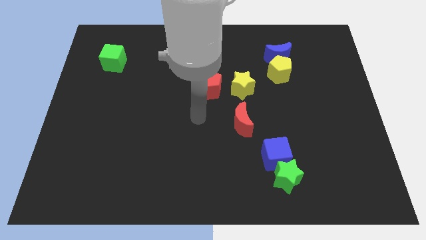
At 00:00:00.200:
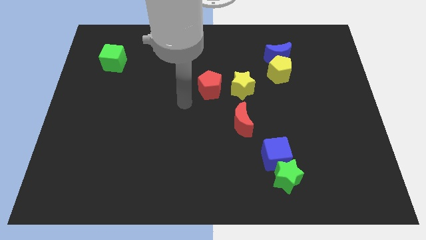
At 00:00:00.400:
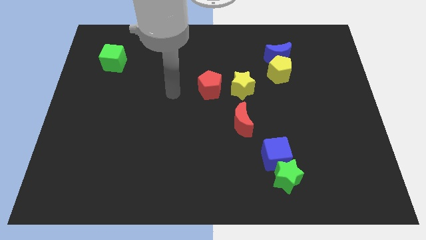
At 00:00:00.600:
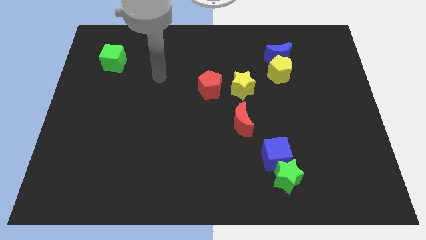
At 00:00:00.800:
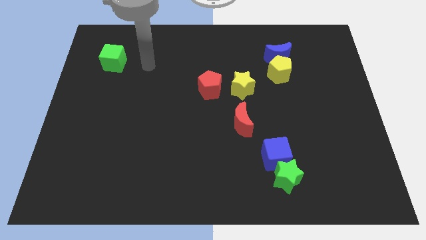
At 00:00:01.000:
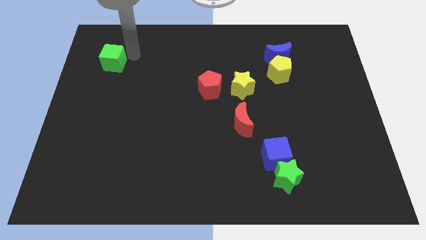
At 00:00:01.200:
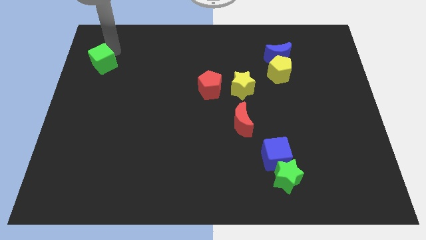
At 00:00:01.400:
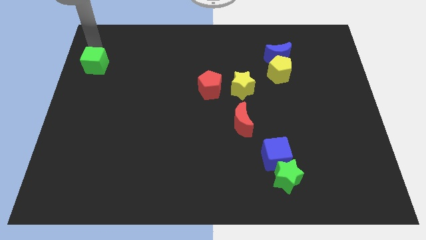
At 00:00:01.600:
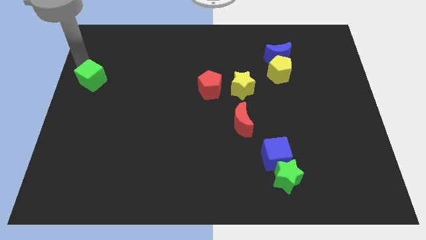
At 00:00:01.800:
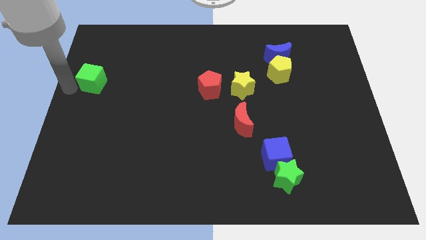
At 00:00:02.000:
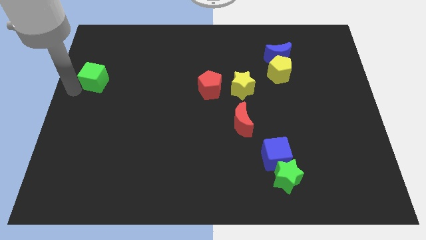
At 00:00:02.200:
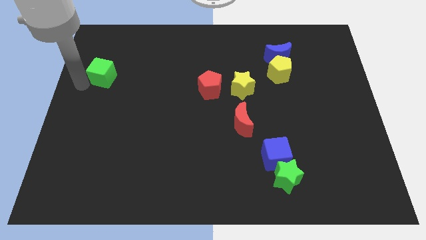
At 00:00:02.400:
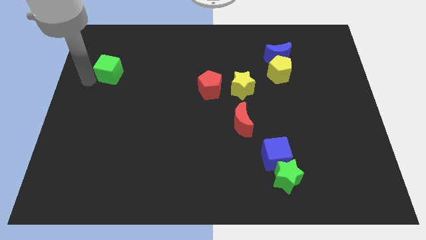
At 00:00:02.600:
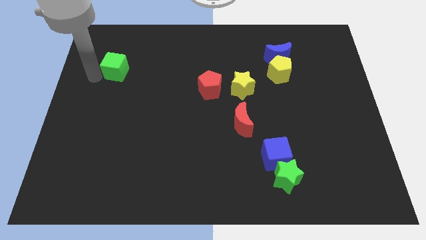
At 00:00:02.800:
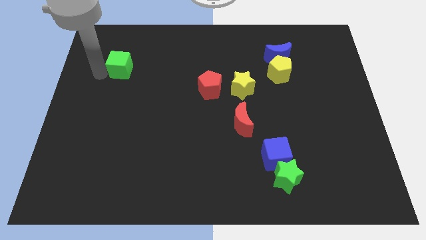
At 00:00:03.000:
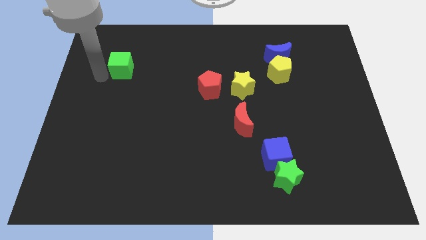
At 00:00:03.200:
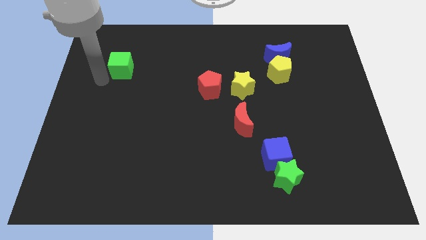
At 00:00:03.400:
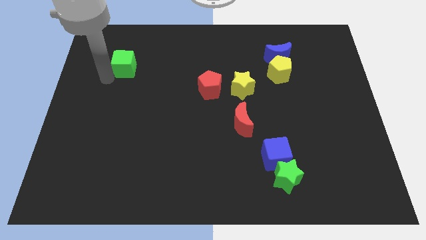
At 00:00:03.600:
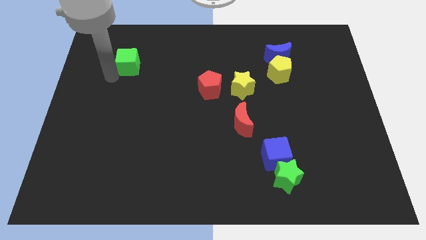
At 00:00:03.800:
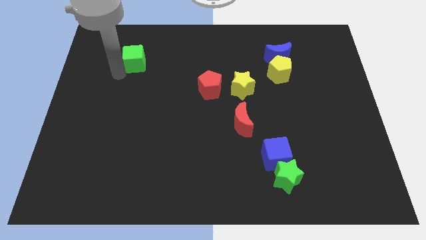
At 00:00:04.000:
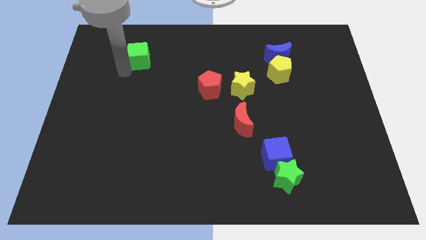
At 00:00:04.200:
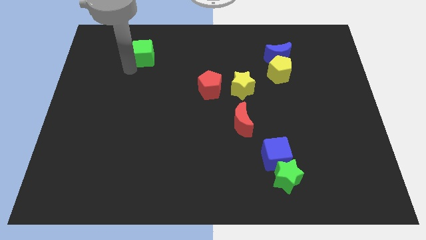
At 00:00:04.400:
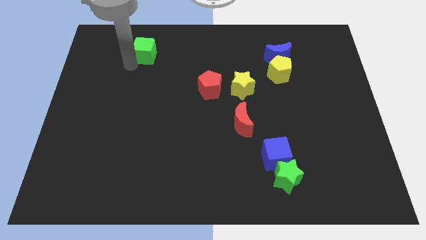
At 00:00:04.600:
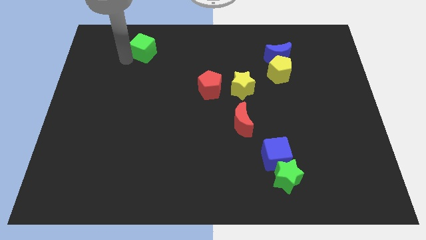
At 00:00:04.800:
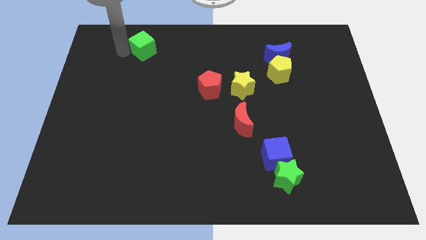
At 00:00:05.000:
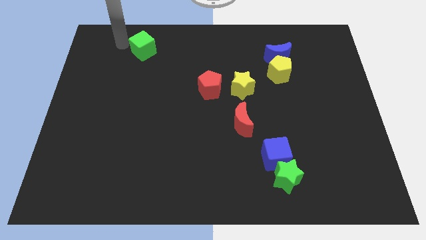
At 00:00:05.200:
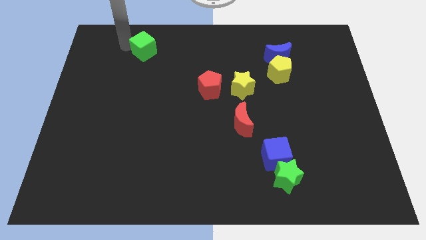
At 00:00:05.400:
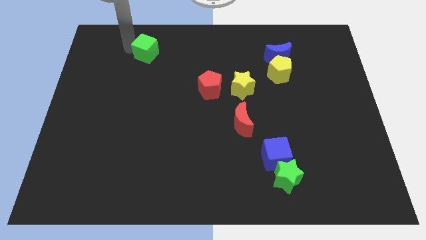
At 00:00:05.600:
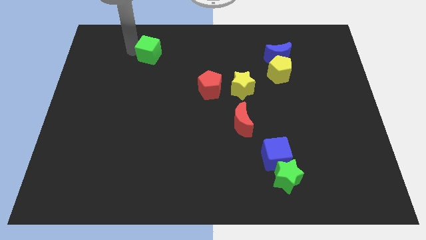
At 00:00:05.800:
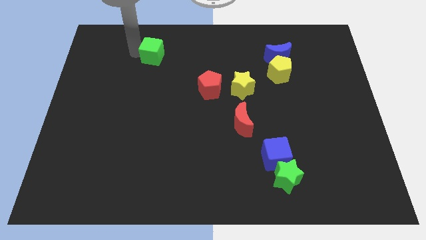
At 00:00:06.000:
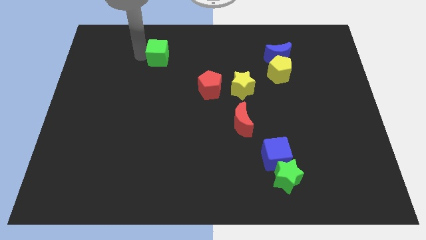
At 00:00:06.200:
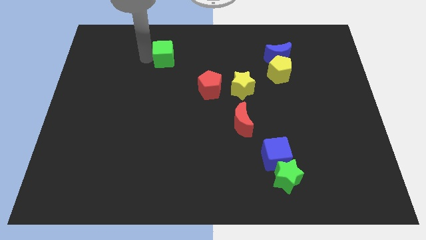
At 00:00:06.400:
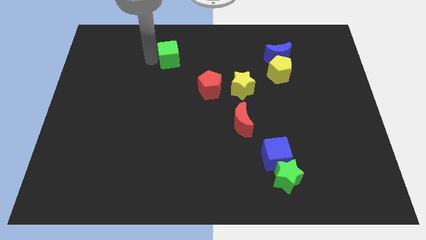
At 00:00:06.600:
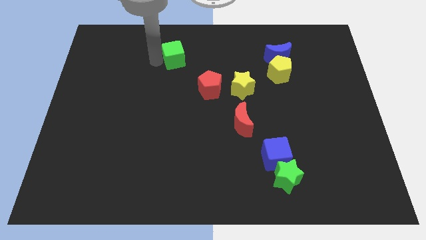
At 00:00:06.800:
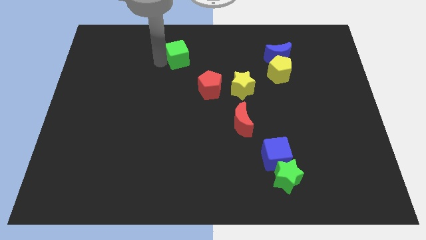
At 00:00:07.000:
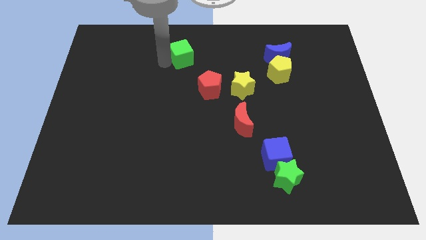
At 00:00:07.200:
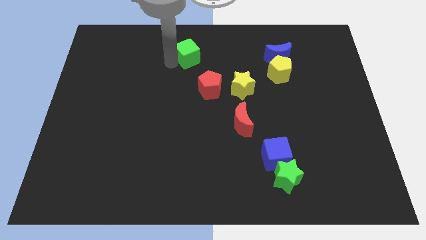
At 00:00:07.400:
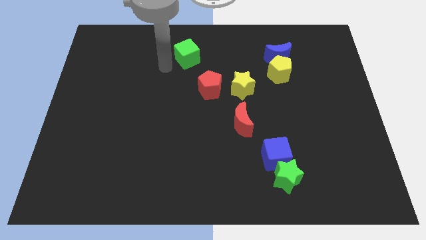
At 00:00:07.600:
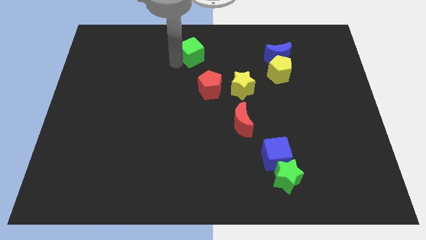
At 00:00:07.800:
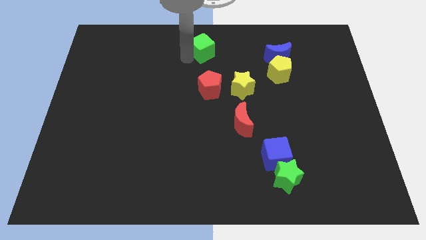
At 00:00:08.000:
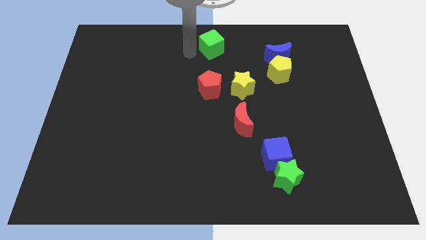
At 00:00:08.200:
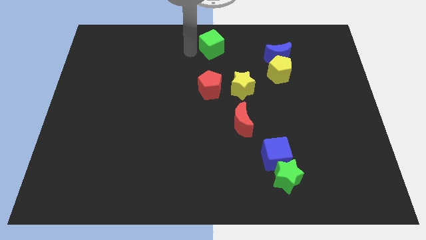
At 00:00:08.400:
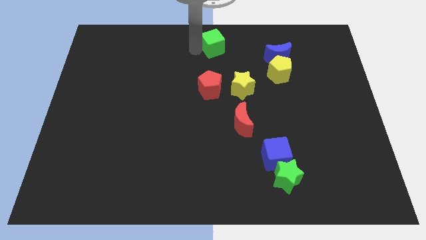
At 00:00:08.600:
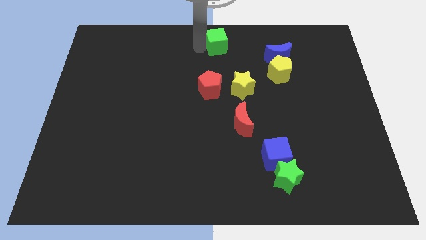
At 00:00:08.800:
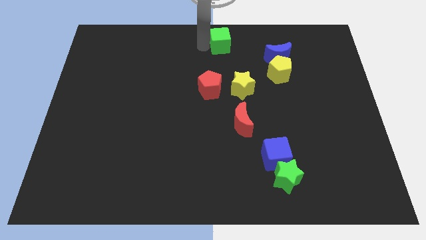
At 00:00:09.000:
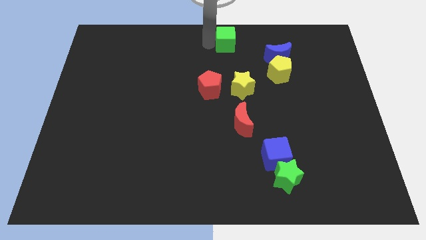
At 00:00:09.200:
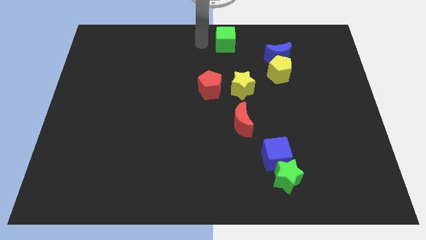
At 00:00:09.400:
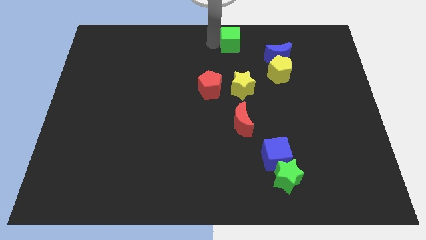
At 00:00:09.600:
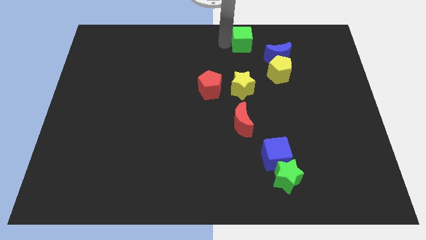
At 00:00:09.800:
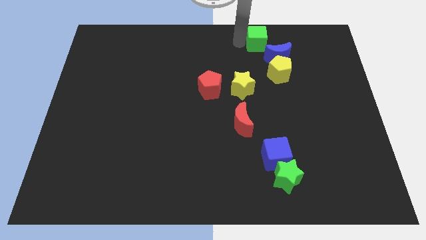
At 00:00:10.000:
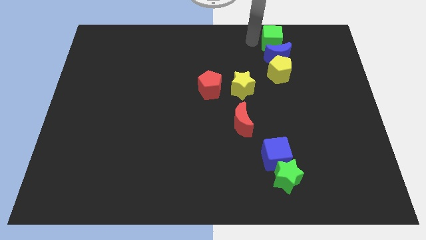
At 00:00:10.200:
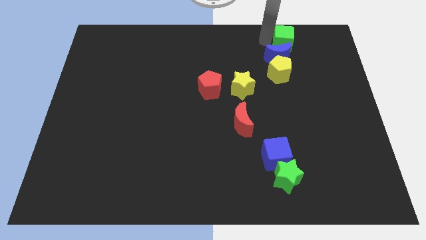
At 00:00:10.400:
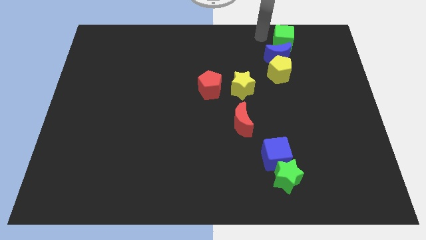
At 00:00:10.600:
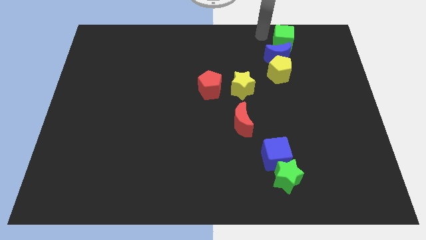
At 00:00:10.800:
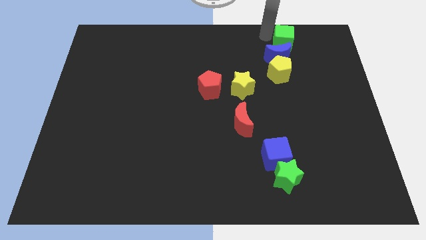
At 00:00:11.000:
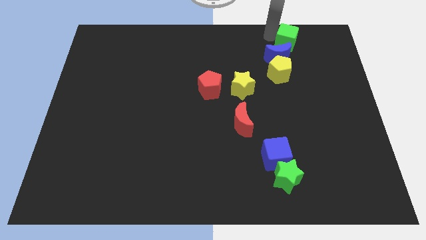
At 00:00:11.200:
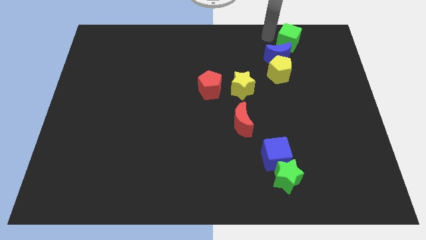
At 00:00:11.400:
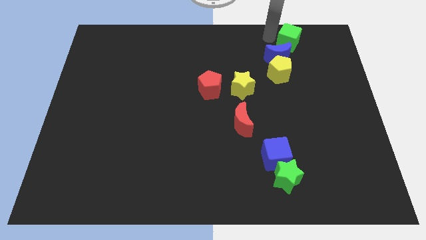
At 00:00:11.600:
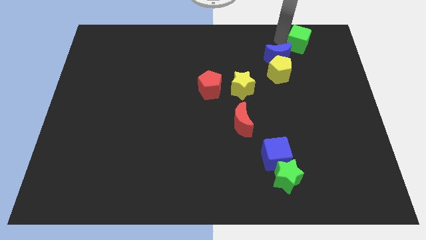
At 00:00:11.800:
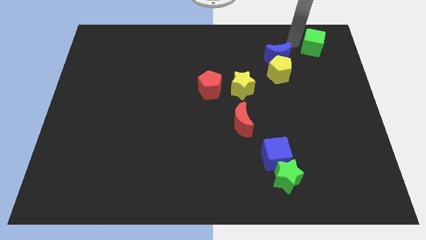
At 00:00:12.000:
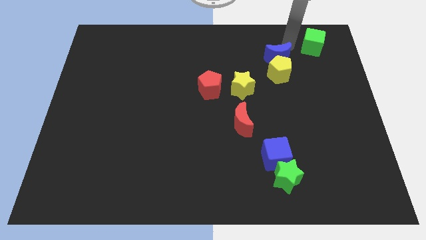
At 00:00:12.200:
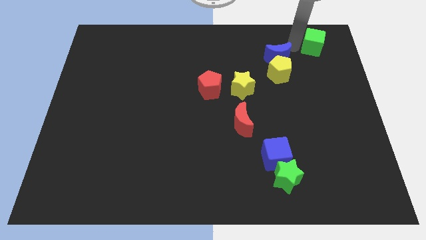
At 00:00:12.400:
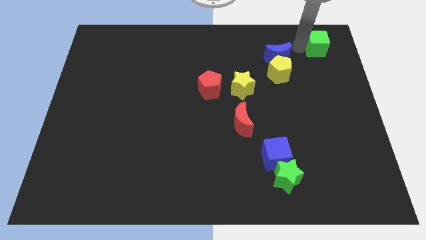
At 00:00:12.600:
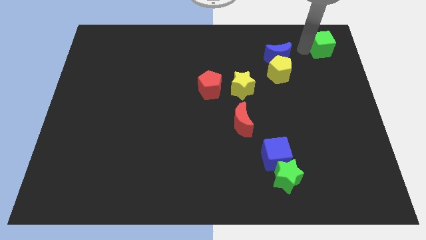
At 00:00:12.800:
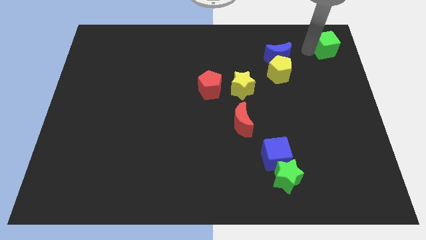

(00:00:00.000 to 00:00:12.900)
move the green cube to the top right of the board

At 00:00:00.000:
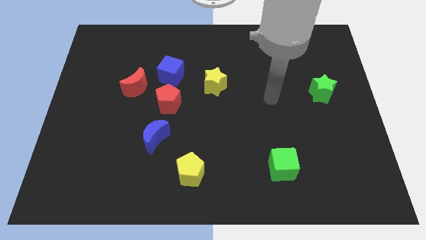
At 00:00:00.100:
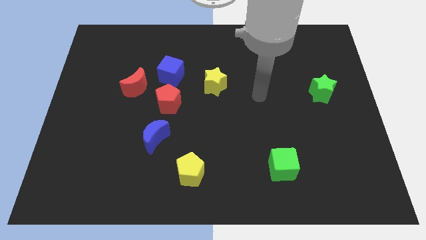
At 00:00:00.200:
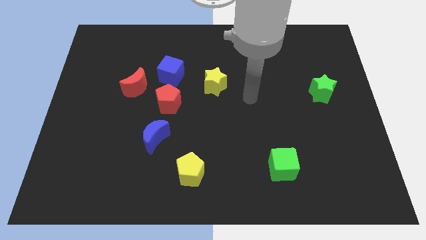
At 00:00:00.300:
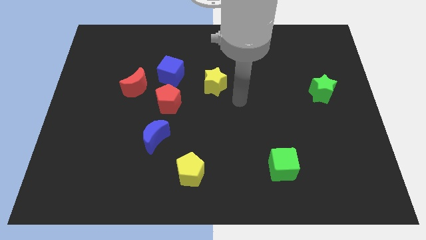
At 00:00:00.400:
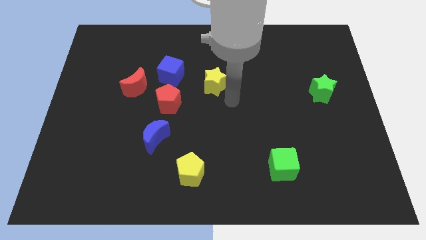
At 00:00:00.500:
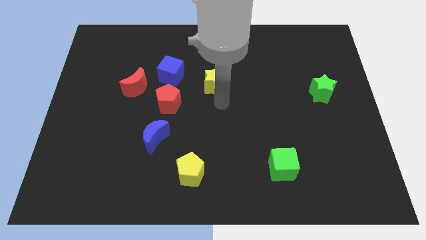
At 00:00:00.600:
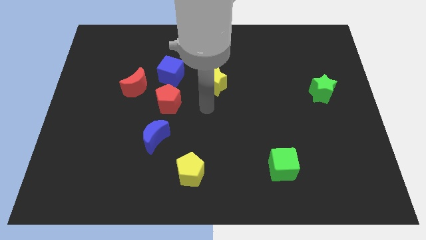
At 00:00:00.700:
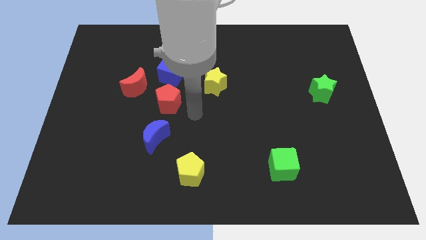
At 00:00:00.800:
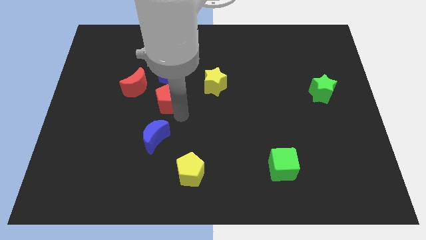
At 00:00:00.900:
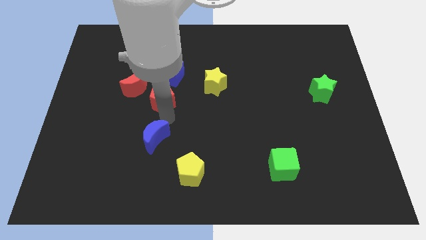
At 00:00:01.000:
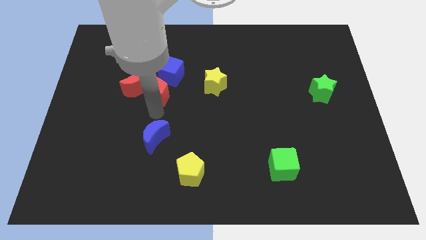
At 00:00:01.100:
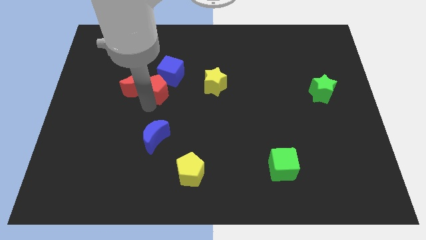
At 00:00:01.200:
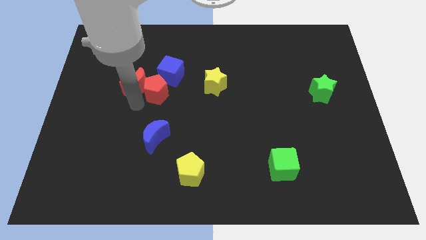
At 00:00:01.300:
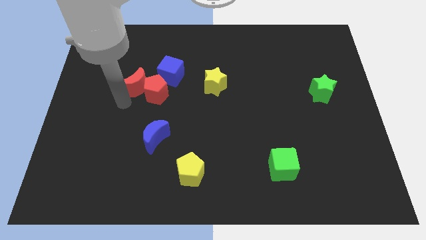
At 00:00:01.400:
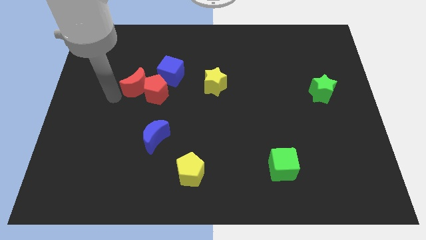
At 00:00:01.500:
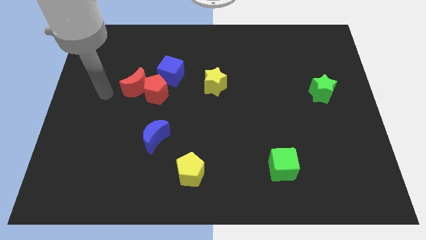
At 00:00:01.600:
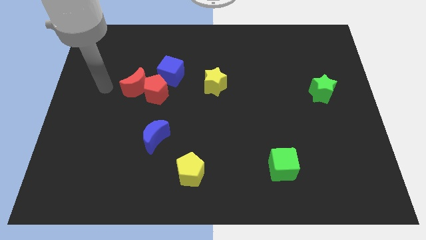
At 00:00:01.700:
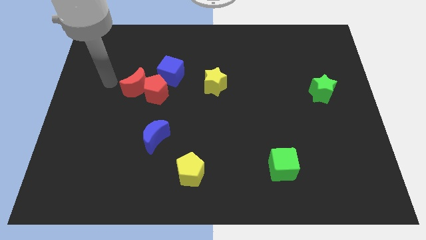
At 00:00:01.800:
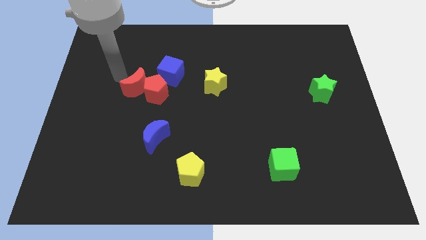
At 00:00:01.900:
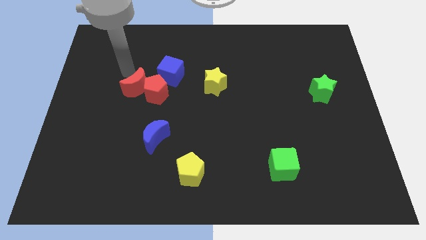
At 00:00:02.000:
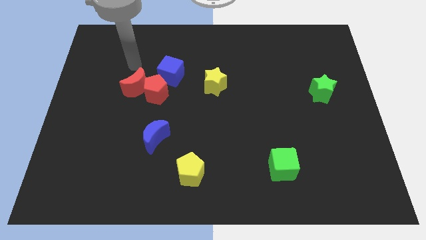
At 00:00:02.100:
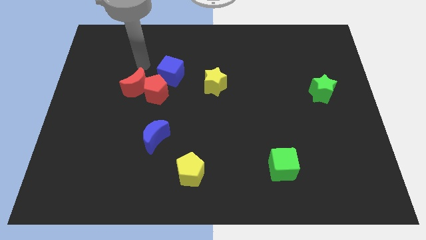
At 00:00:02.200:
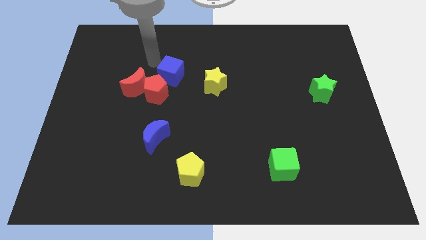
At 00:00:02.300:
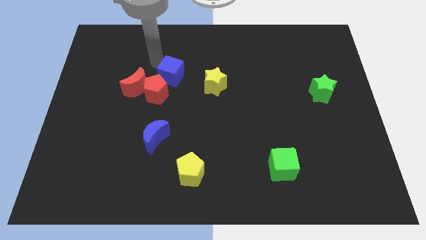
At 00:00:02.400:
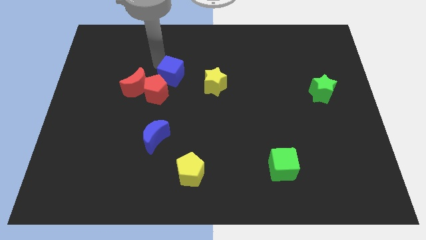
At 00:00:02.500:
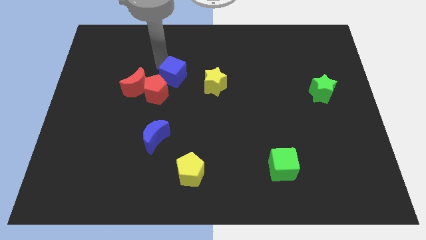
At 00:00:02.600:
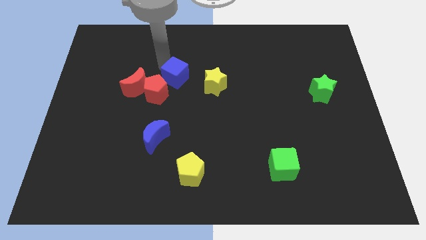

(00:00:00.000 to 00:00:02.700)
slide the blue cube to the center
